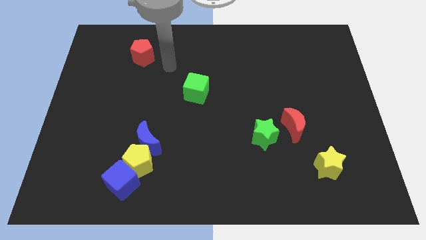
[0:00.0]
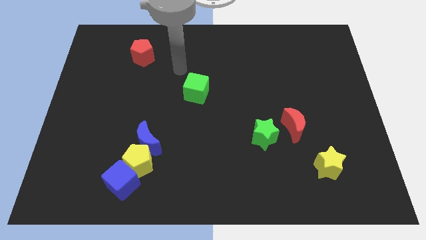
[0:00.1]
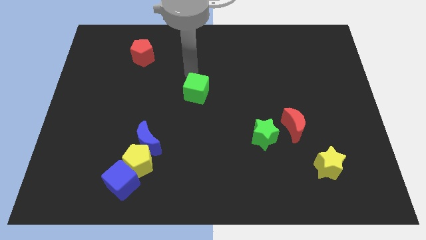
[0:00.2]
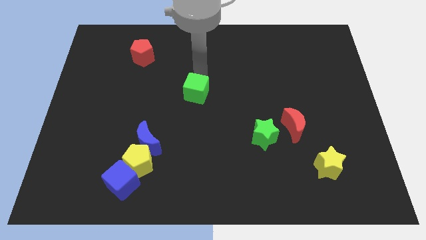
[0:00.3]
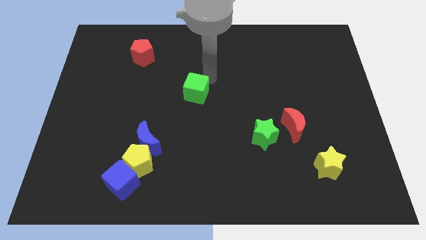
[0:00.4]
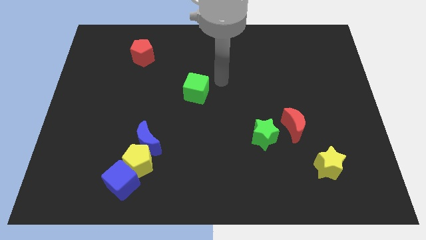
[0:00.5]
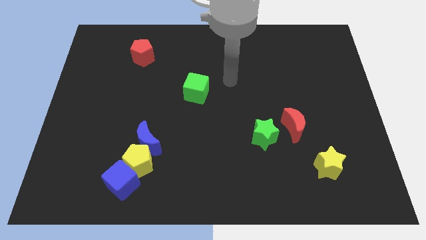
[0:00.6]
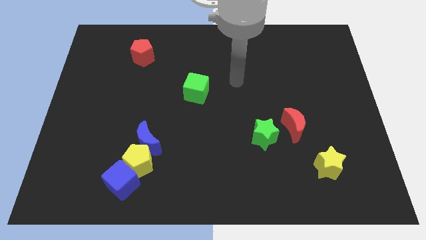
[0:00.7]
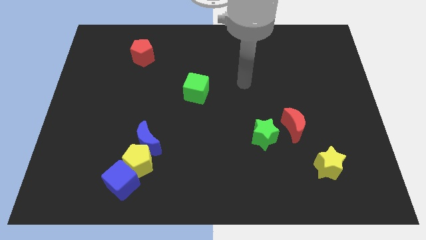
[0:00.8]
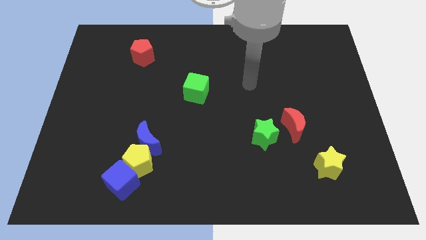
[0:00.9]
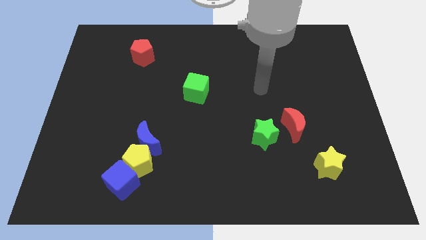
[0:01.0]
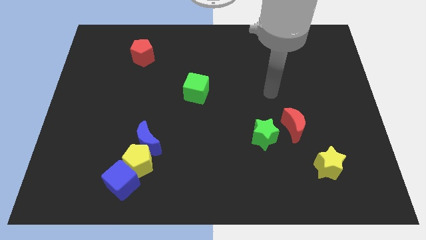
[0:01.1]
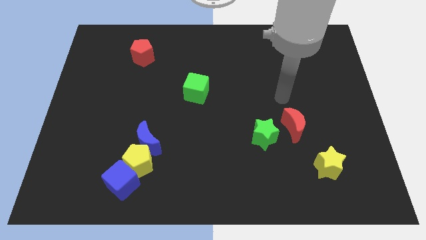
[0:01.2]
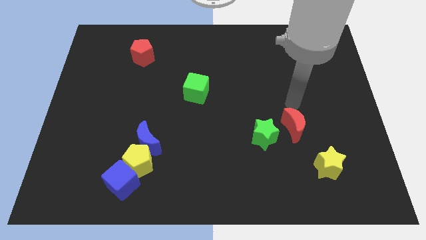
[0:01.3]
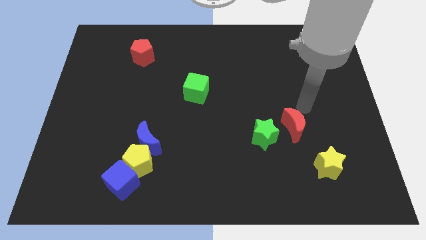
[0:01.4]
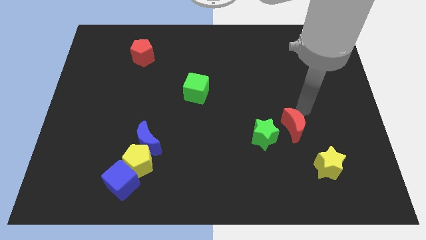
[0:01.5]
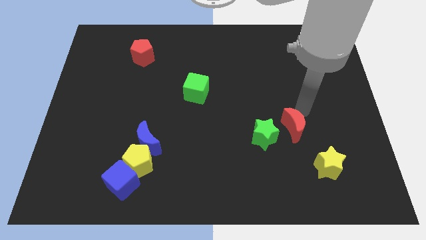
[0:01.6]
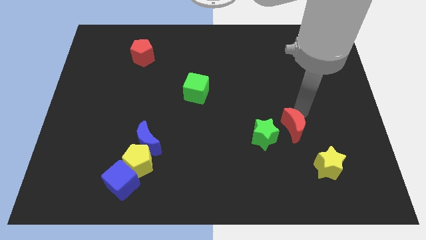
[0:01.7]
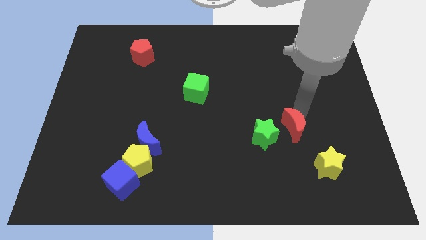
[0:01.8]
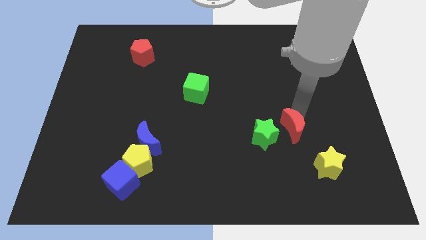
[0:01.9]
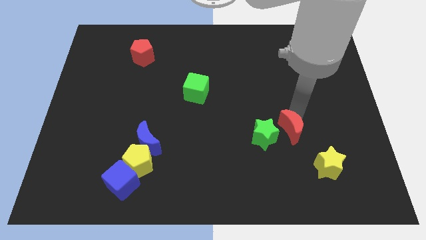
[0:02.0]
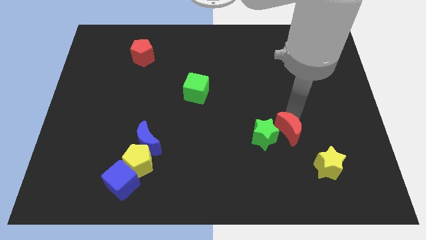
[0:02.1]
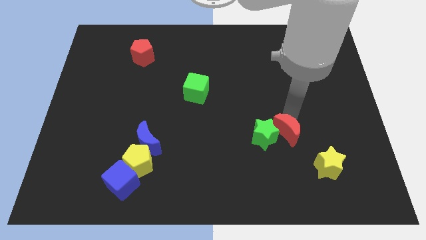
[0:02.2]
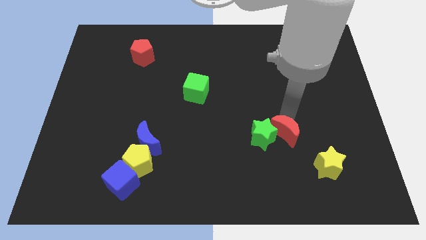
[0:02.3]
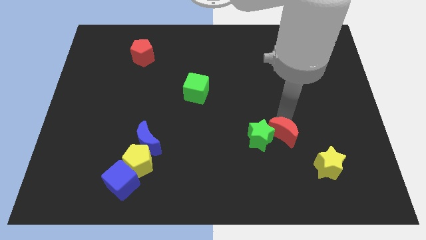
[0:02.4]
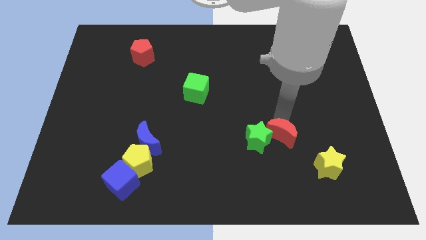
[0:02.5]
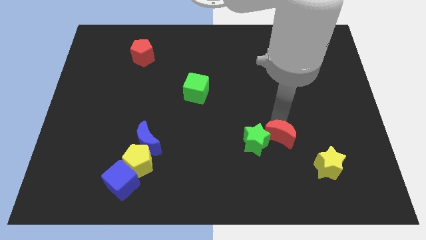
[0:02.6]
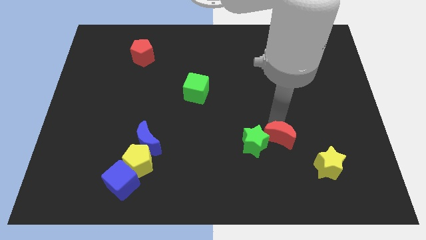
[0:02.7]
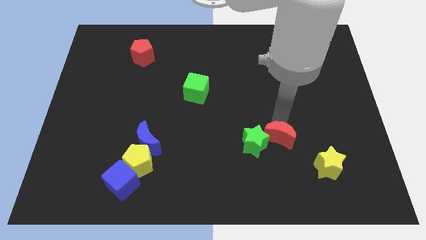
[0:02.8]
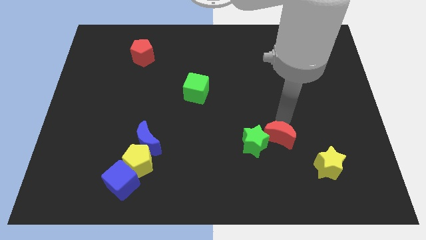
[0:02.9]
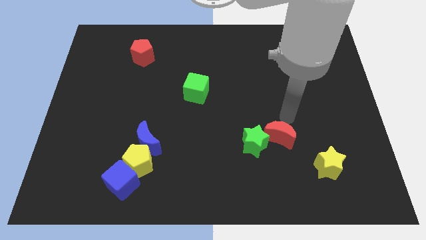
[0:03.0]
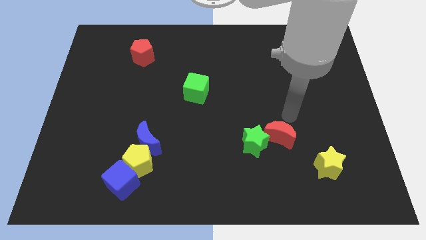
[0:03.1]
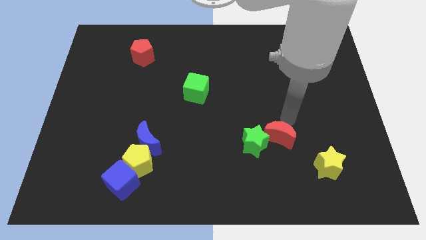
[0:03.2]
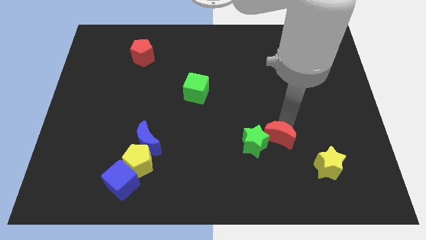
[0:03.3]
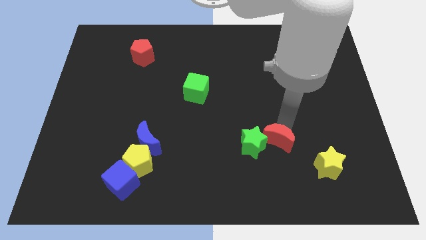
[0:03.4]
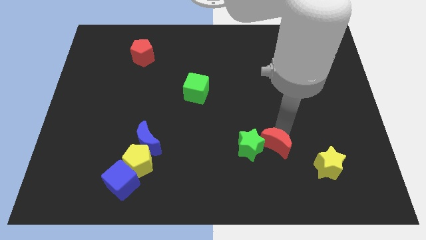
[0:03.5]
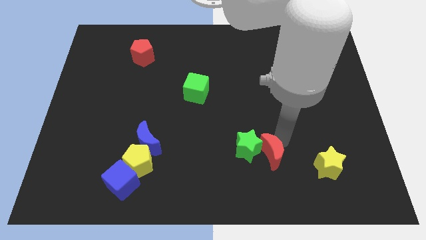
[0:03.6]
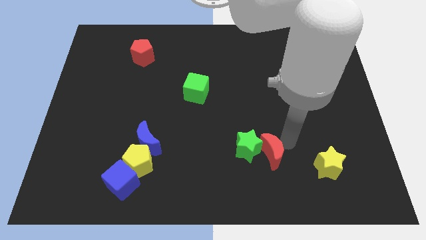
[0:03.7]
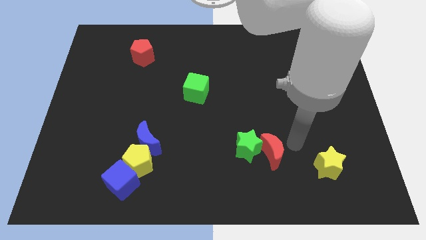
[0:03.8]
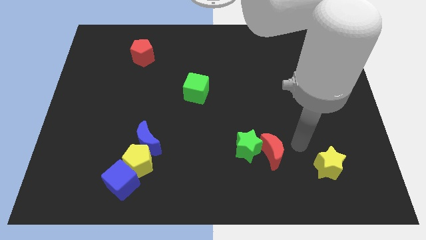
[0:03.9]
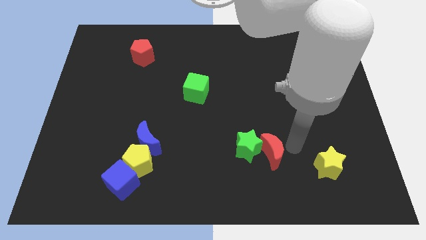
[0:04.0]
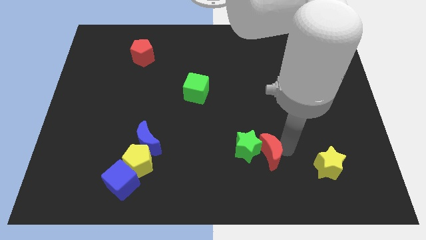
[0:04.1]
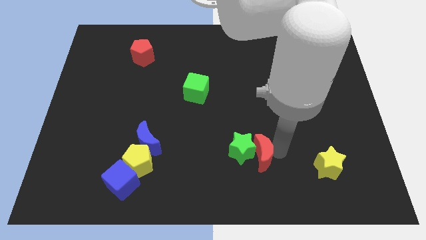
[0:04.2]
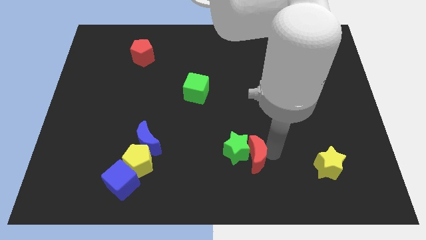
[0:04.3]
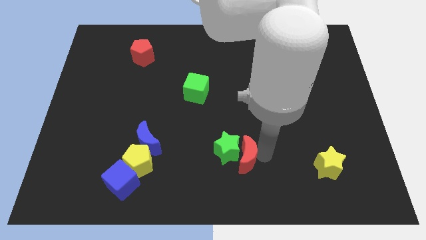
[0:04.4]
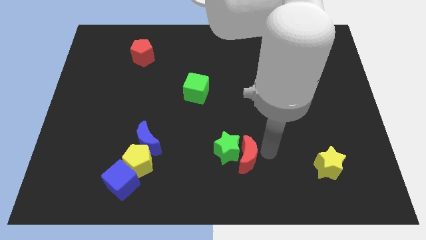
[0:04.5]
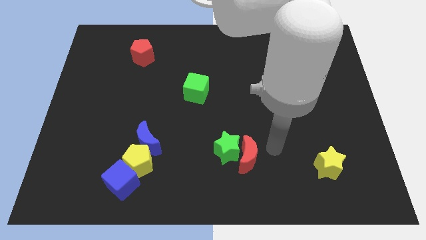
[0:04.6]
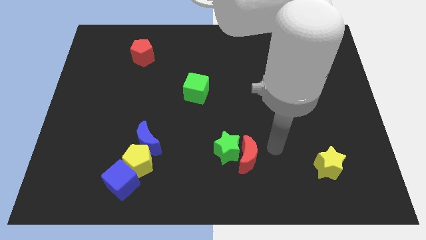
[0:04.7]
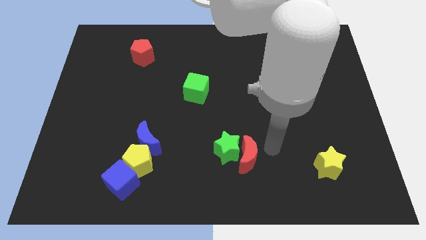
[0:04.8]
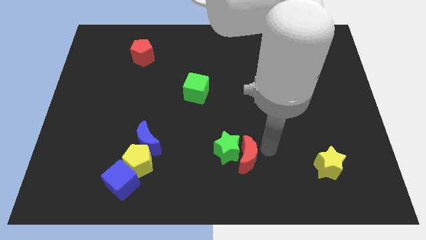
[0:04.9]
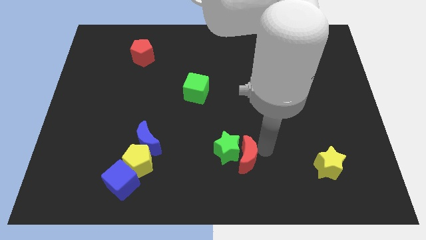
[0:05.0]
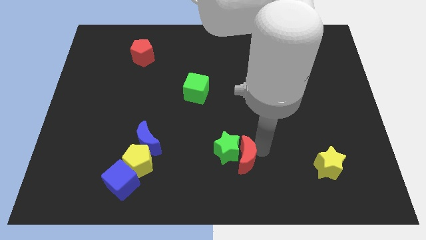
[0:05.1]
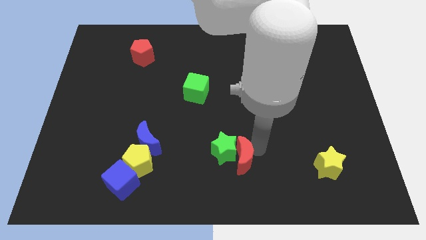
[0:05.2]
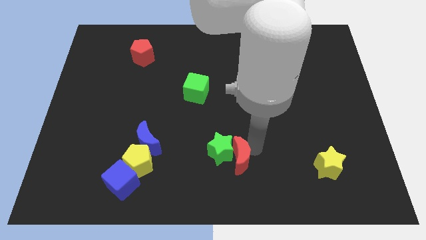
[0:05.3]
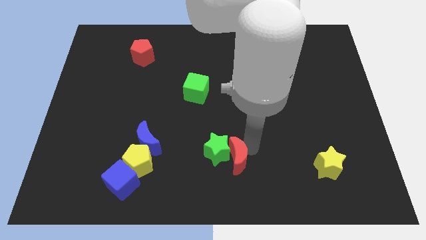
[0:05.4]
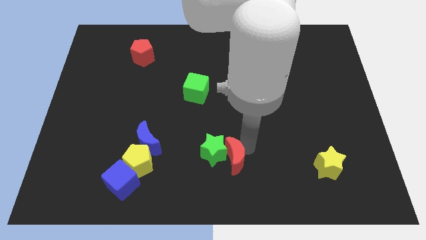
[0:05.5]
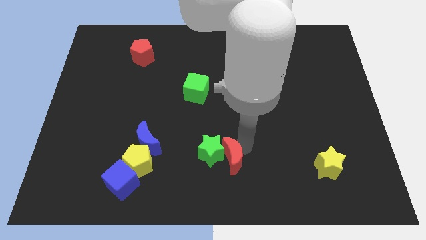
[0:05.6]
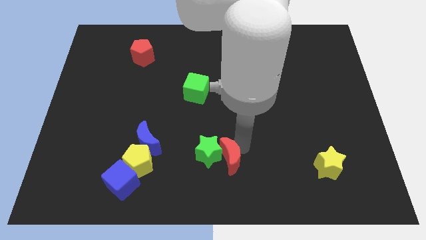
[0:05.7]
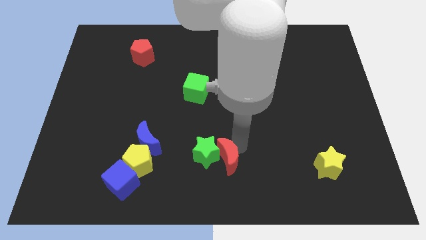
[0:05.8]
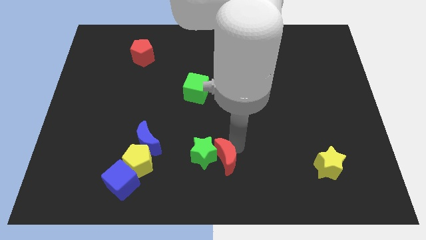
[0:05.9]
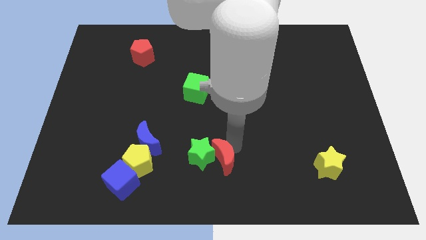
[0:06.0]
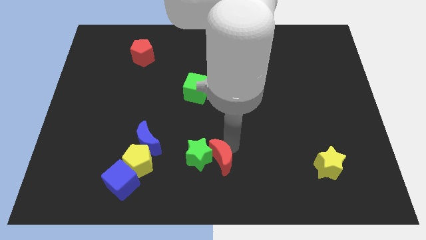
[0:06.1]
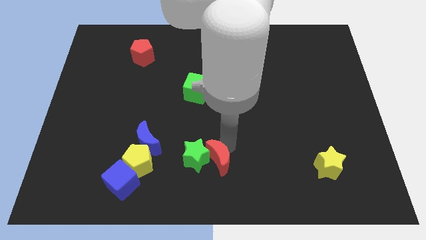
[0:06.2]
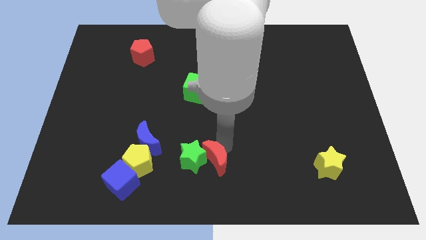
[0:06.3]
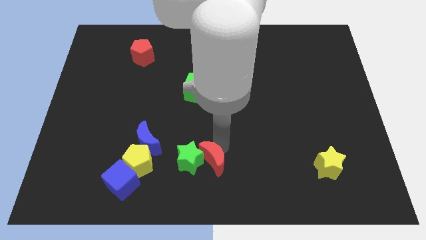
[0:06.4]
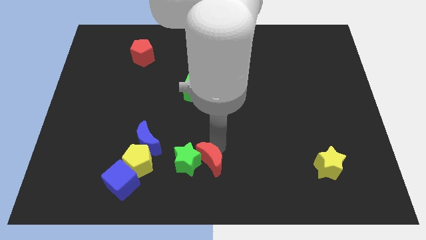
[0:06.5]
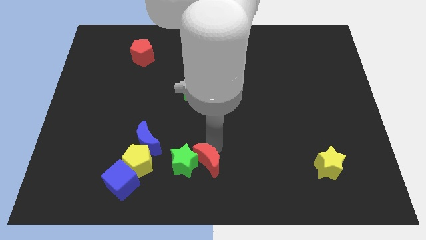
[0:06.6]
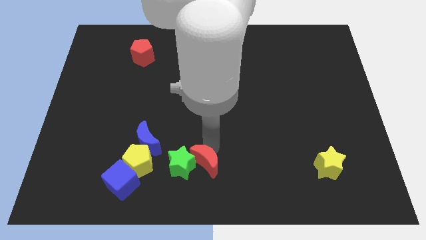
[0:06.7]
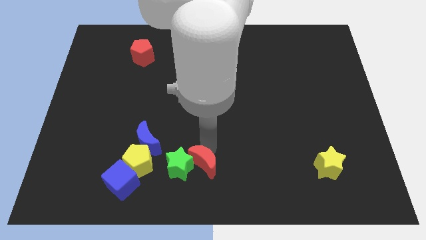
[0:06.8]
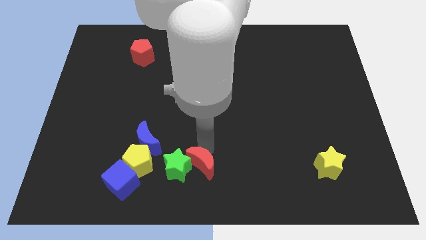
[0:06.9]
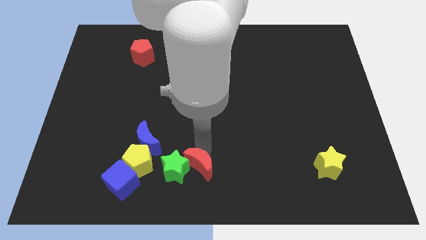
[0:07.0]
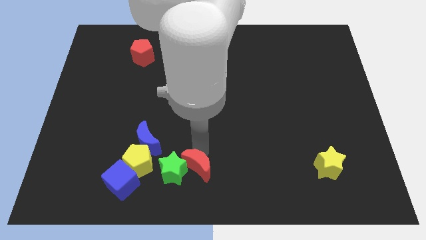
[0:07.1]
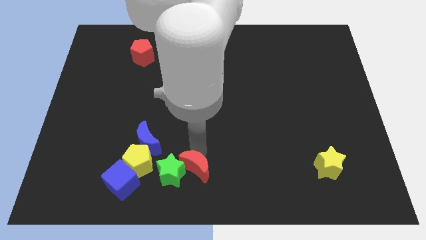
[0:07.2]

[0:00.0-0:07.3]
move the red moon just right of the blue cube
